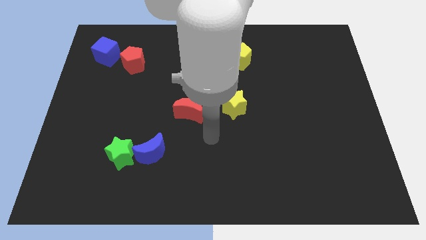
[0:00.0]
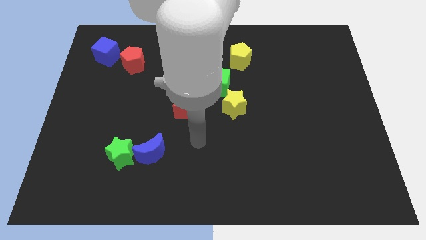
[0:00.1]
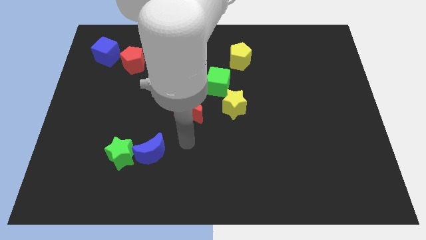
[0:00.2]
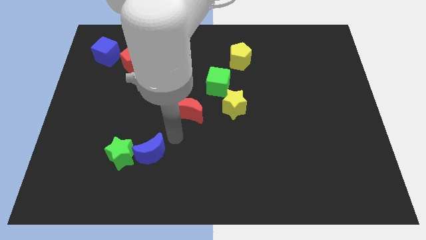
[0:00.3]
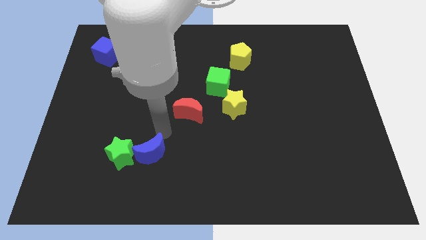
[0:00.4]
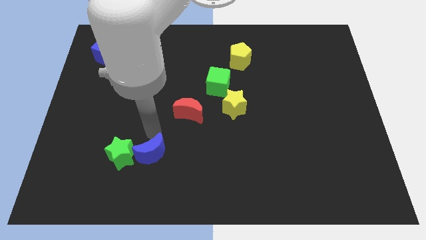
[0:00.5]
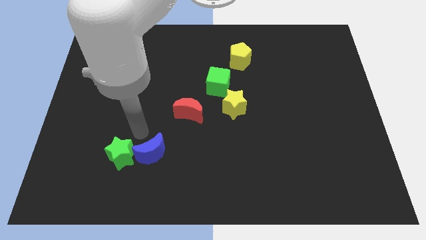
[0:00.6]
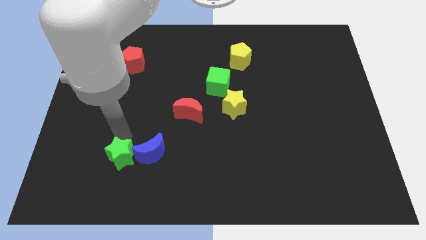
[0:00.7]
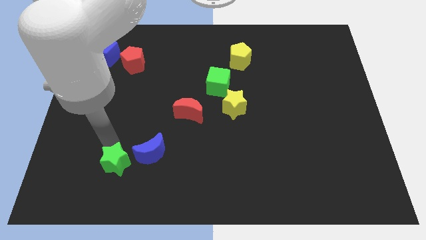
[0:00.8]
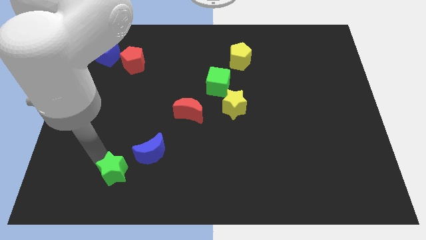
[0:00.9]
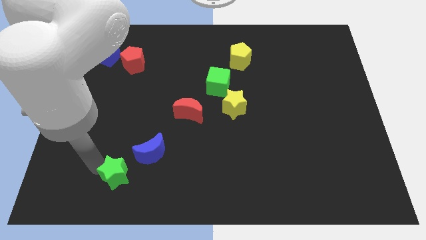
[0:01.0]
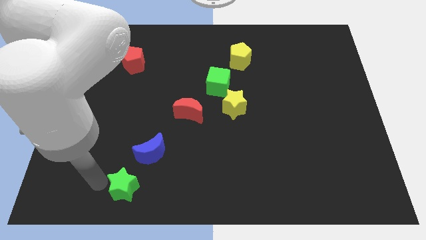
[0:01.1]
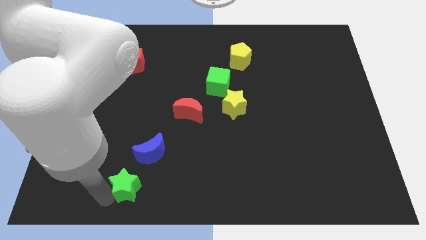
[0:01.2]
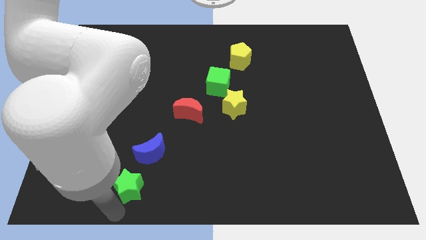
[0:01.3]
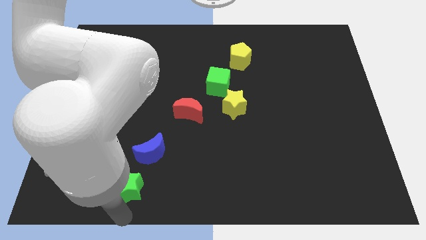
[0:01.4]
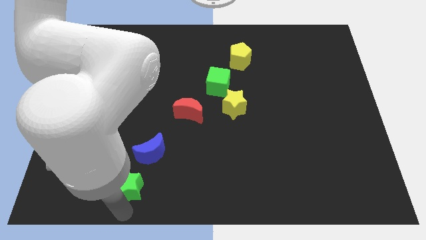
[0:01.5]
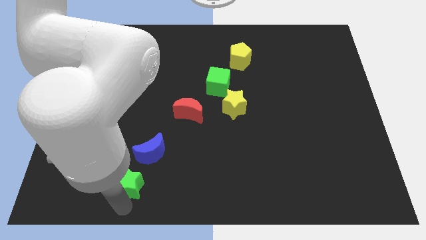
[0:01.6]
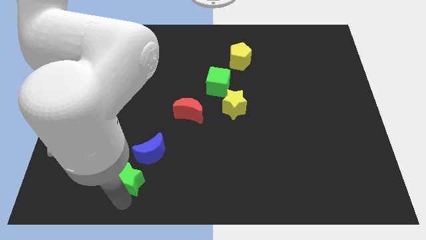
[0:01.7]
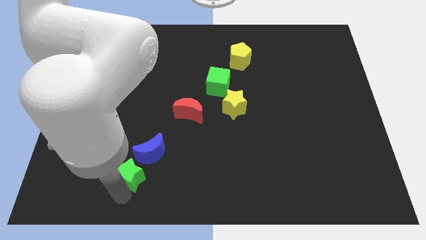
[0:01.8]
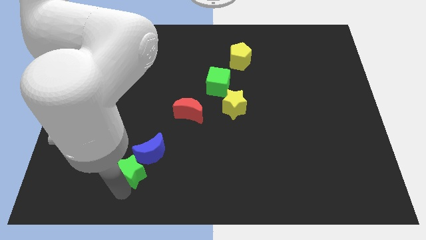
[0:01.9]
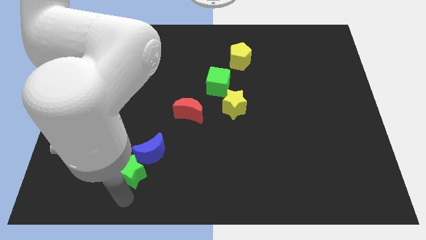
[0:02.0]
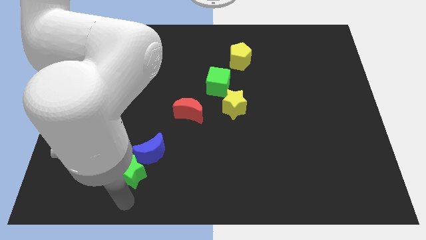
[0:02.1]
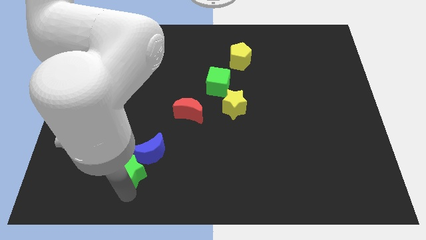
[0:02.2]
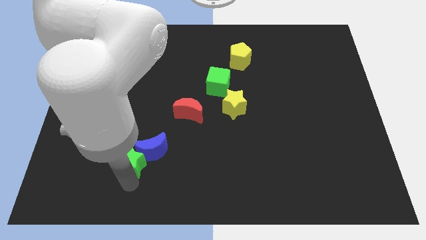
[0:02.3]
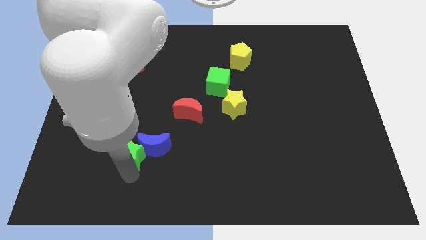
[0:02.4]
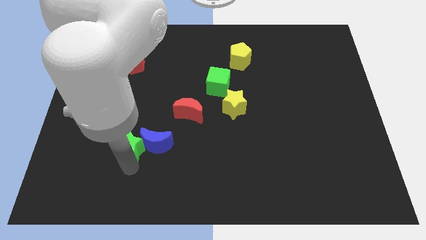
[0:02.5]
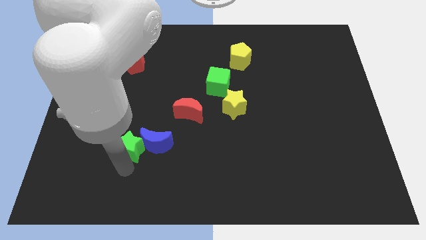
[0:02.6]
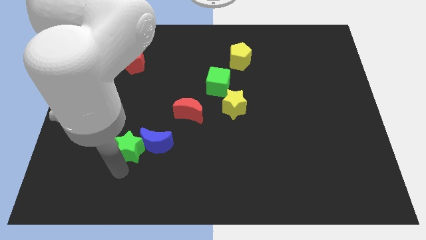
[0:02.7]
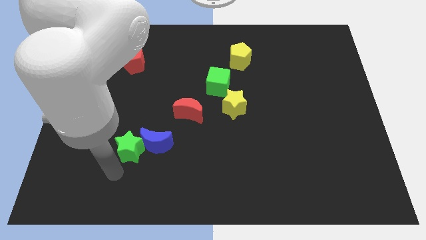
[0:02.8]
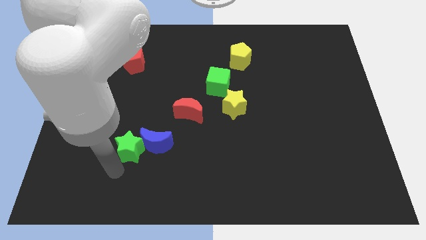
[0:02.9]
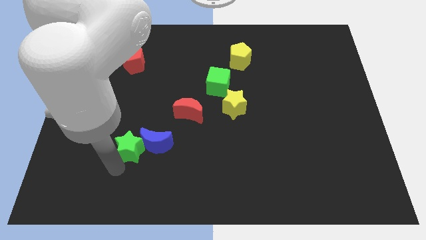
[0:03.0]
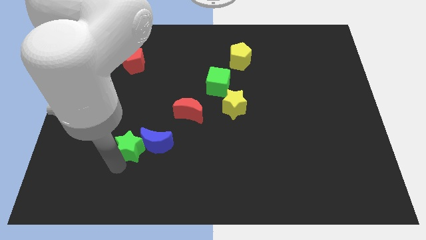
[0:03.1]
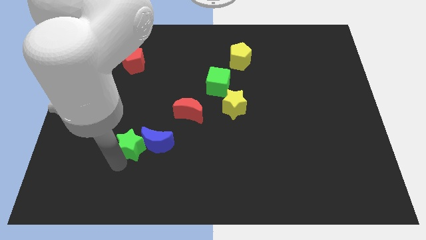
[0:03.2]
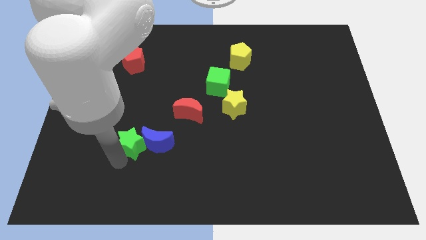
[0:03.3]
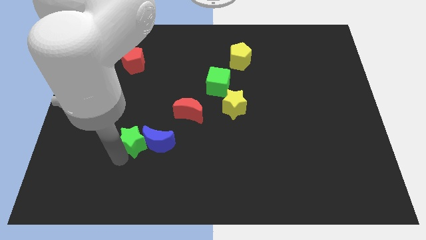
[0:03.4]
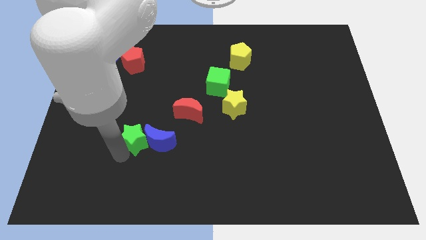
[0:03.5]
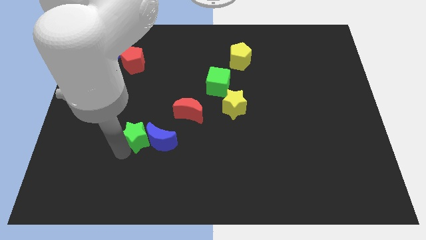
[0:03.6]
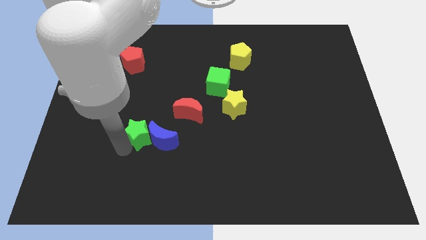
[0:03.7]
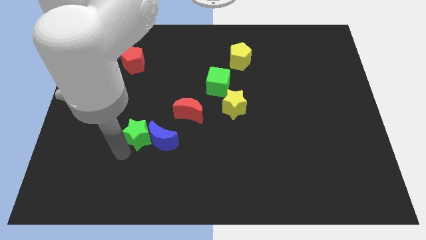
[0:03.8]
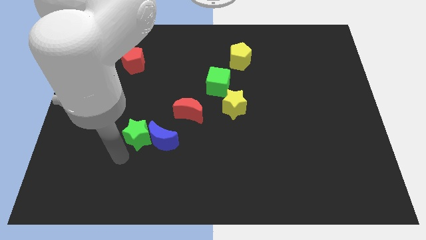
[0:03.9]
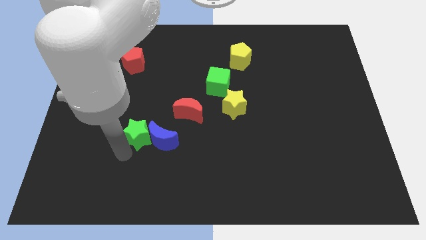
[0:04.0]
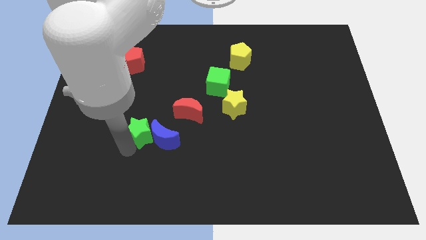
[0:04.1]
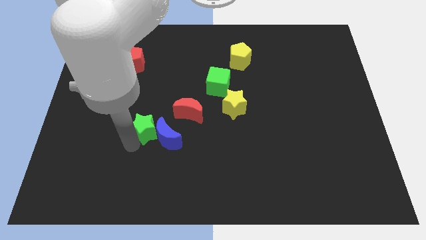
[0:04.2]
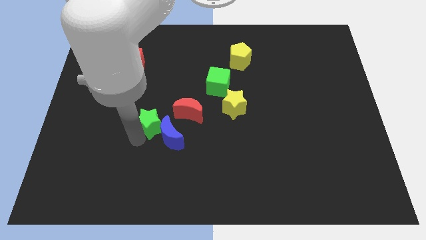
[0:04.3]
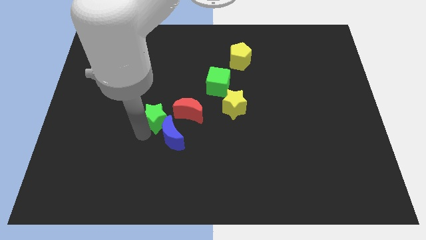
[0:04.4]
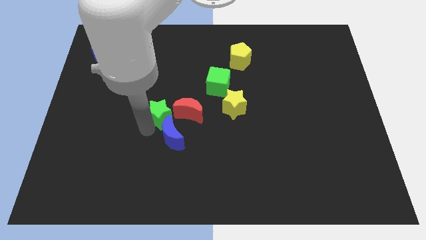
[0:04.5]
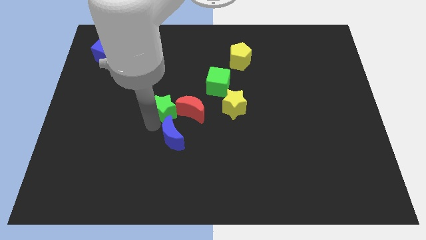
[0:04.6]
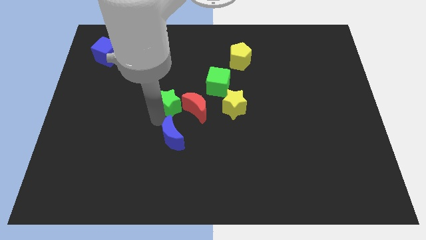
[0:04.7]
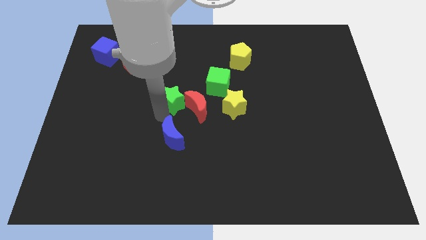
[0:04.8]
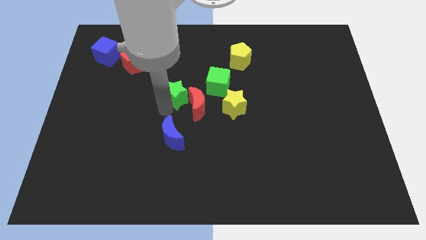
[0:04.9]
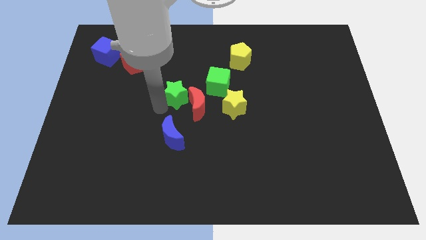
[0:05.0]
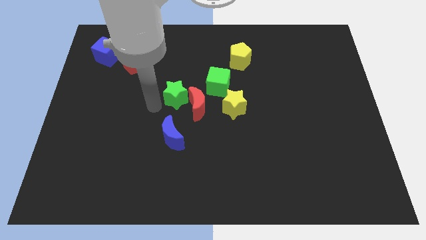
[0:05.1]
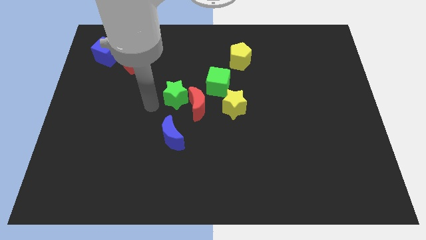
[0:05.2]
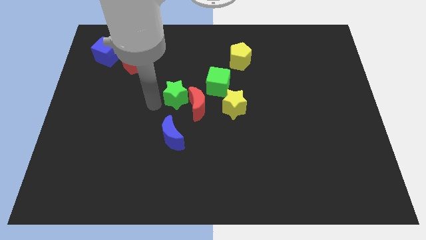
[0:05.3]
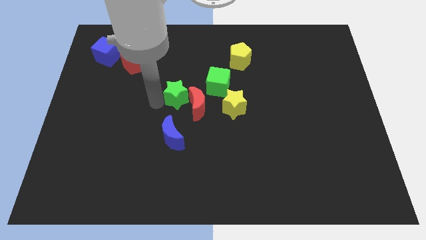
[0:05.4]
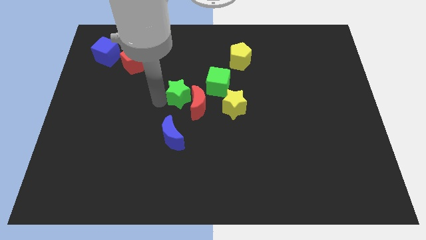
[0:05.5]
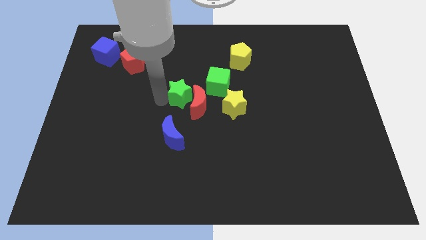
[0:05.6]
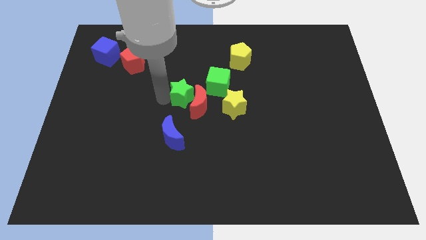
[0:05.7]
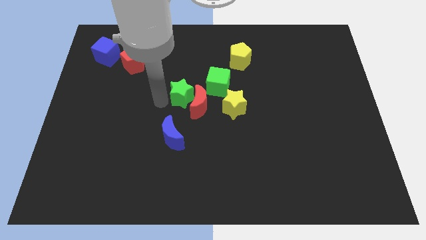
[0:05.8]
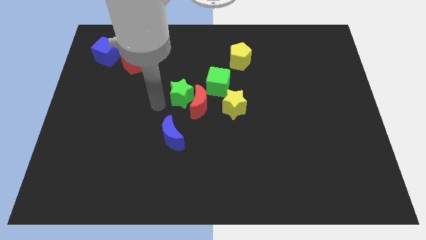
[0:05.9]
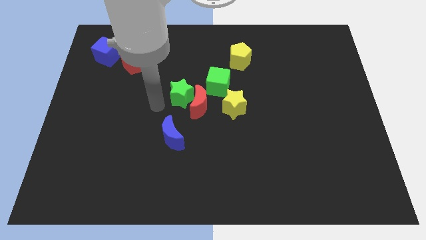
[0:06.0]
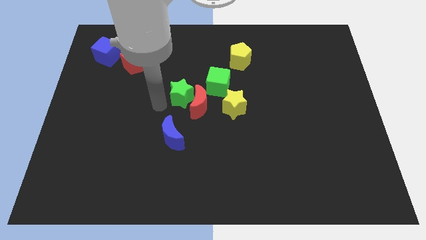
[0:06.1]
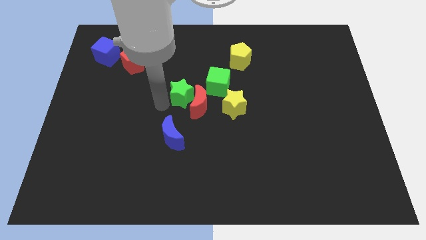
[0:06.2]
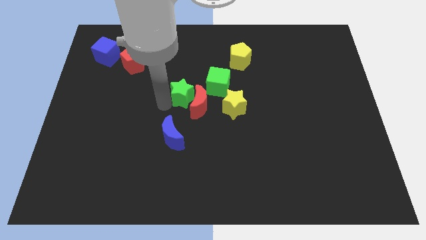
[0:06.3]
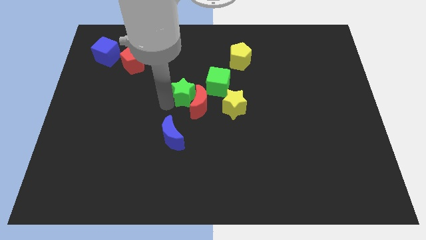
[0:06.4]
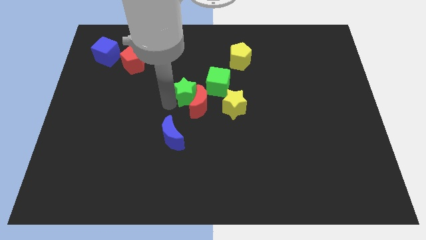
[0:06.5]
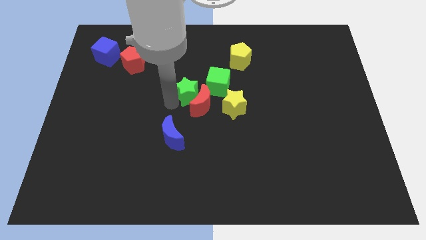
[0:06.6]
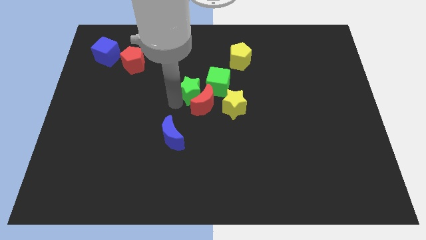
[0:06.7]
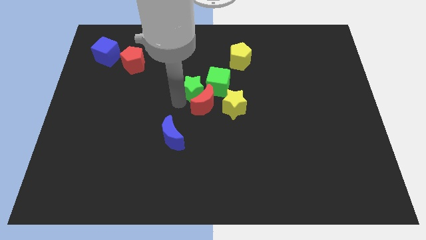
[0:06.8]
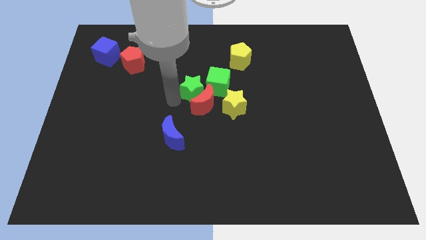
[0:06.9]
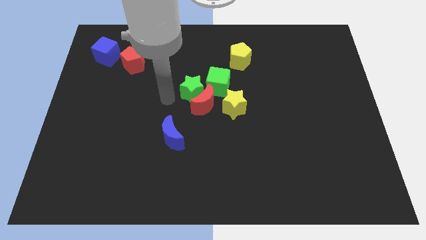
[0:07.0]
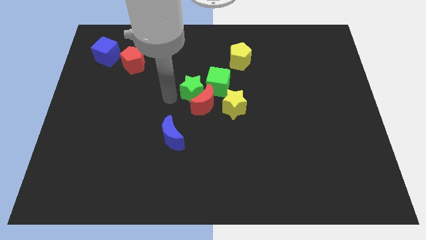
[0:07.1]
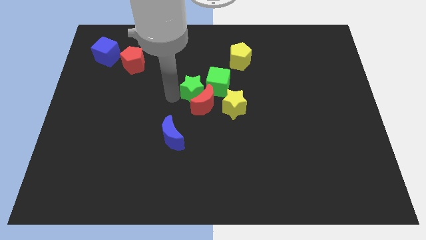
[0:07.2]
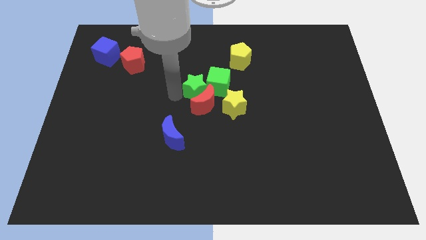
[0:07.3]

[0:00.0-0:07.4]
put the green star next to the green cube
